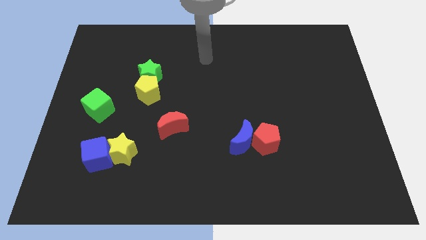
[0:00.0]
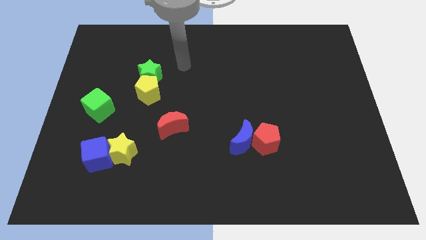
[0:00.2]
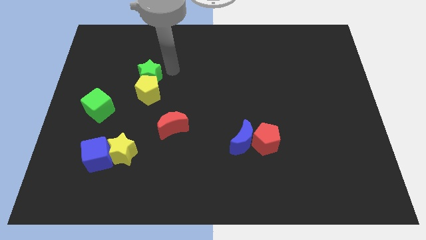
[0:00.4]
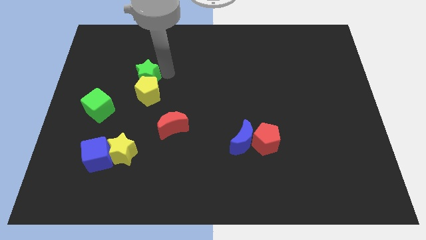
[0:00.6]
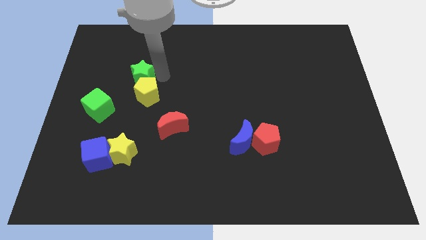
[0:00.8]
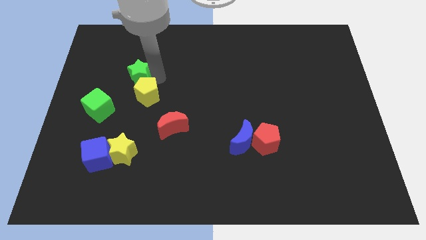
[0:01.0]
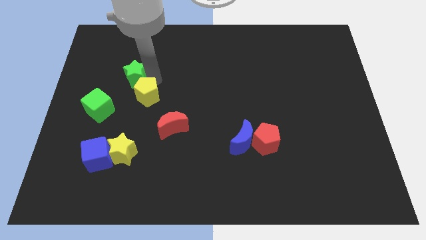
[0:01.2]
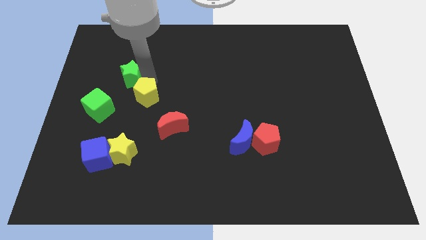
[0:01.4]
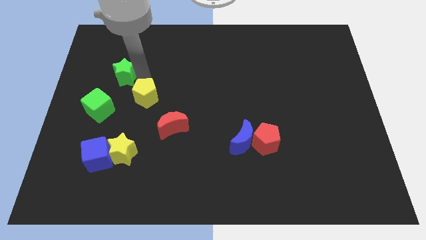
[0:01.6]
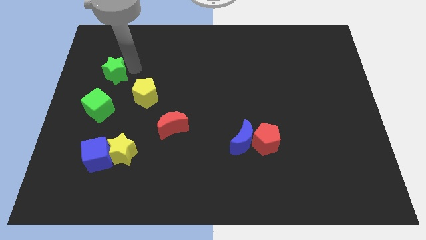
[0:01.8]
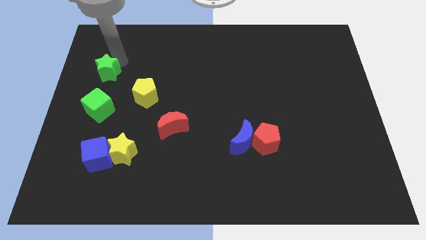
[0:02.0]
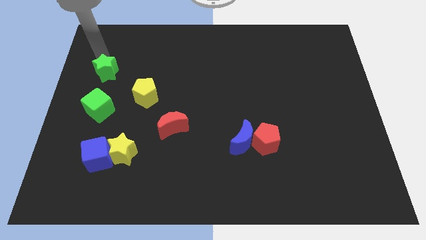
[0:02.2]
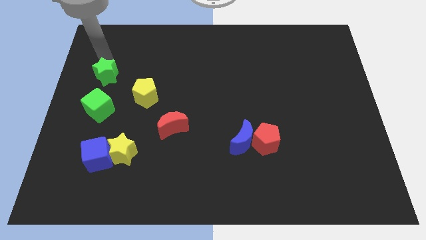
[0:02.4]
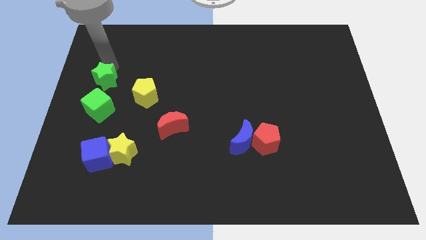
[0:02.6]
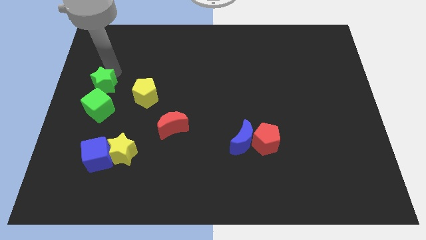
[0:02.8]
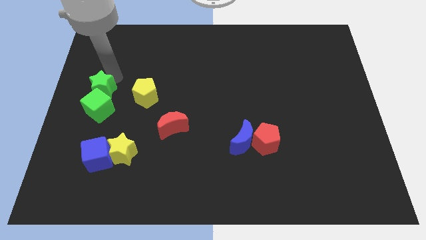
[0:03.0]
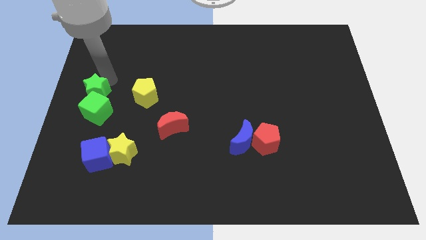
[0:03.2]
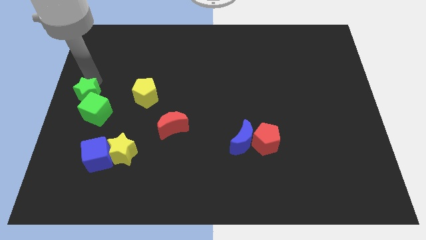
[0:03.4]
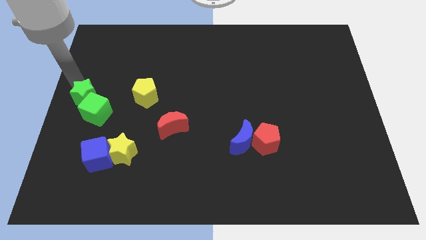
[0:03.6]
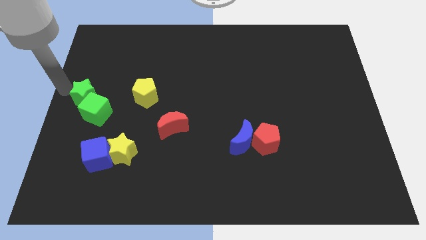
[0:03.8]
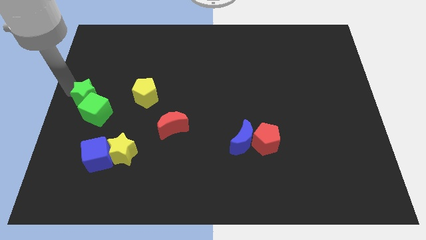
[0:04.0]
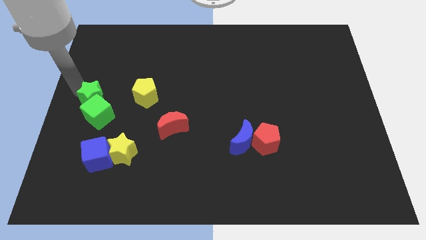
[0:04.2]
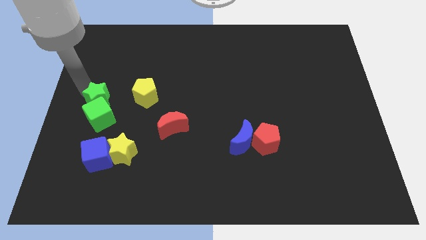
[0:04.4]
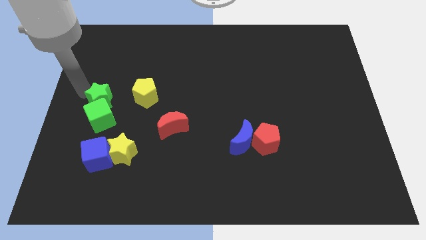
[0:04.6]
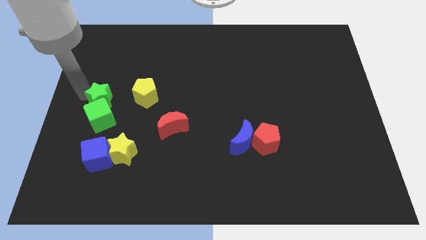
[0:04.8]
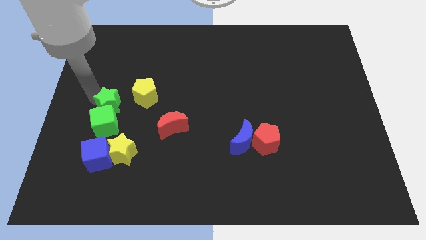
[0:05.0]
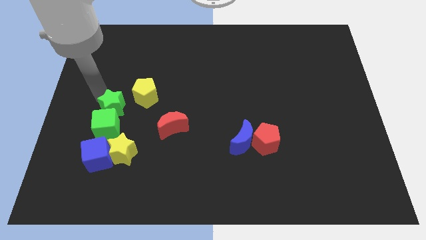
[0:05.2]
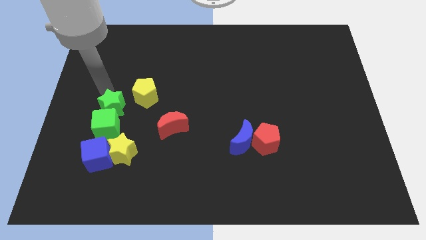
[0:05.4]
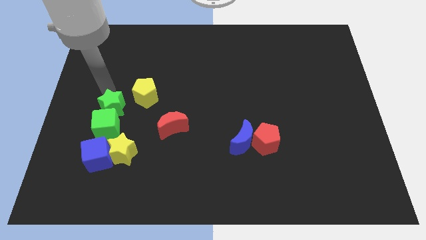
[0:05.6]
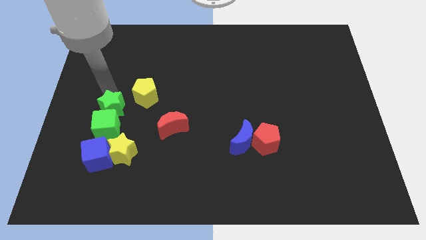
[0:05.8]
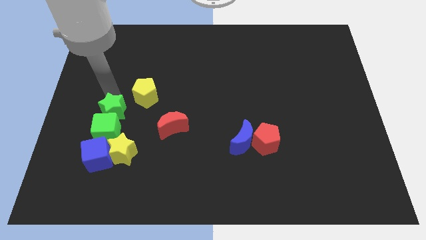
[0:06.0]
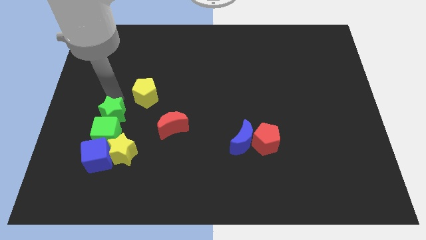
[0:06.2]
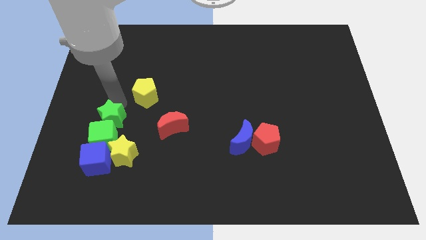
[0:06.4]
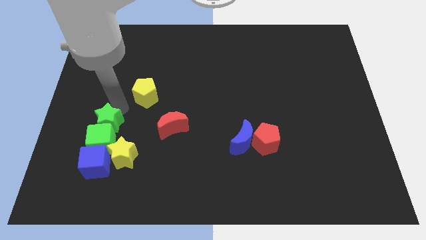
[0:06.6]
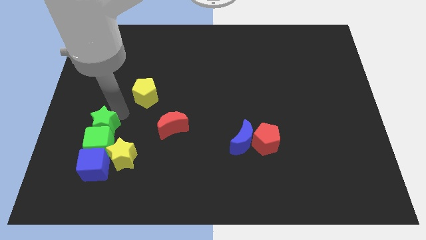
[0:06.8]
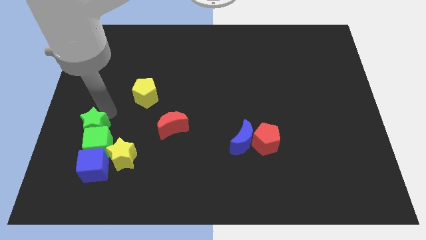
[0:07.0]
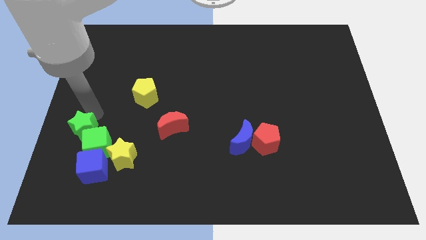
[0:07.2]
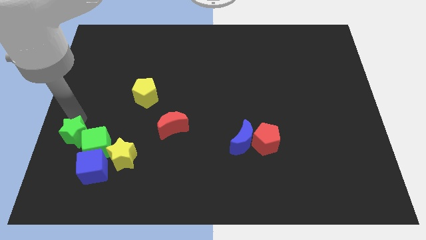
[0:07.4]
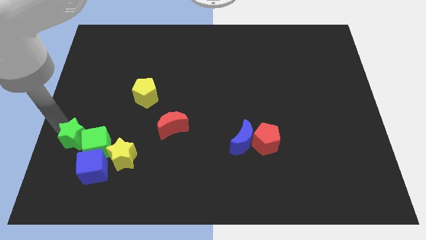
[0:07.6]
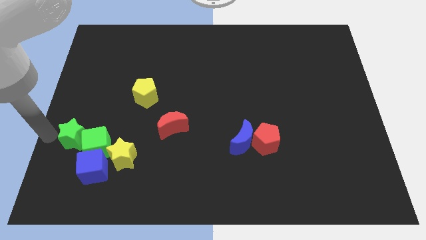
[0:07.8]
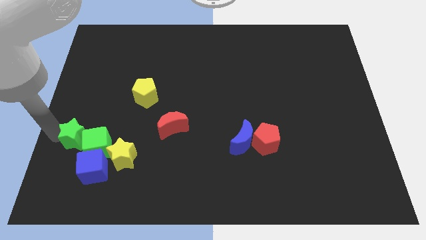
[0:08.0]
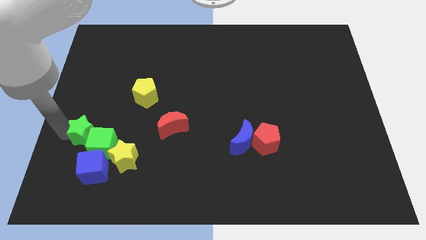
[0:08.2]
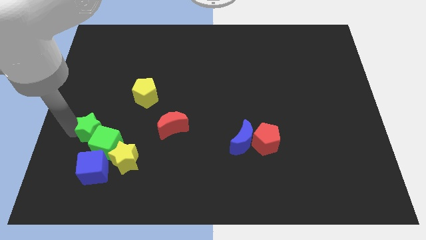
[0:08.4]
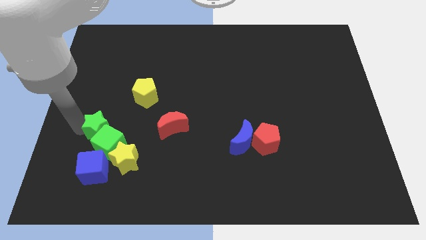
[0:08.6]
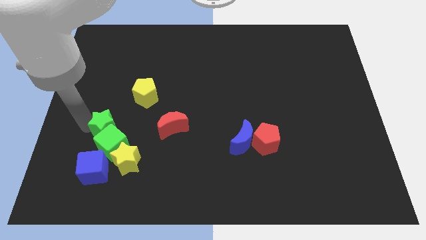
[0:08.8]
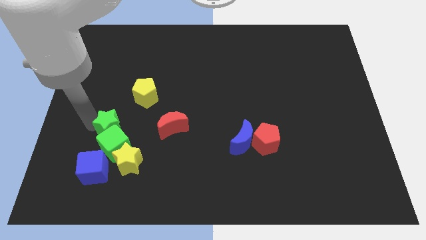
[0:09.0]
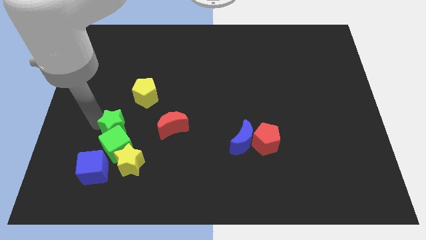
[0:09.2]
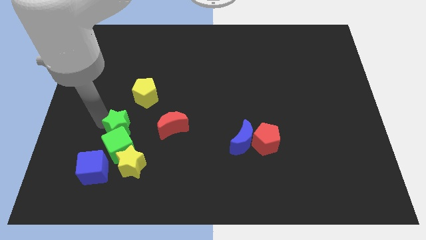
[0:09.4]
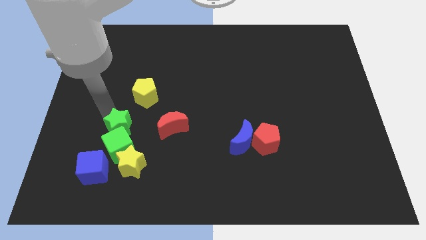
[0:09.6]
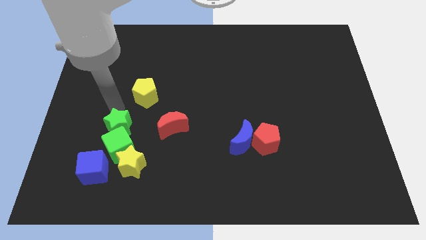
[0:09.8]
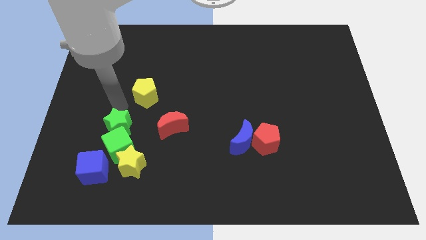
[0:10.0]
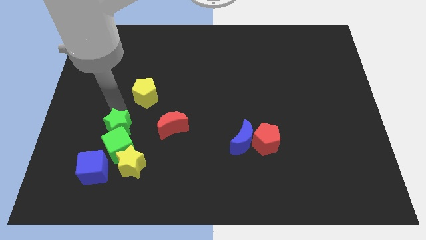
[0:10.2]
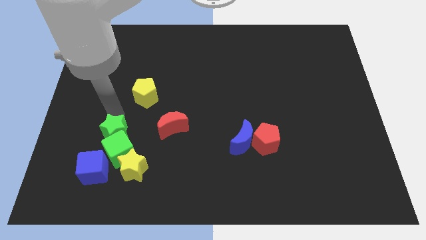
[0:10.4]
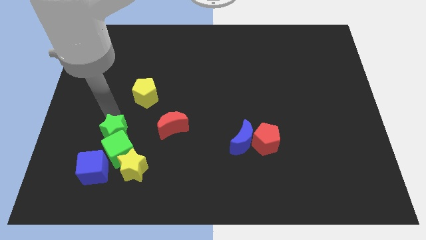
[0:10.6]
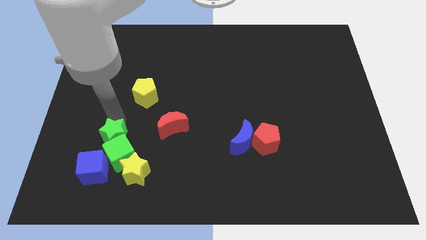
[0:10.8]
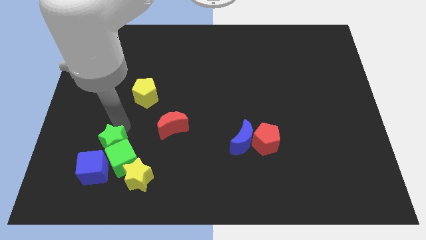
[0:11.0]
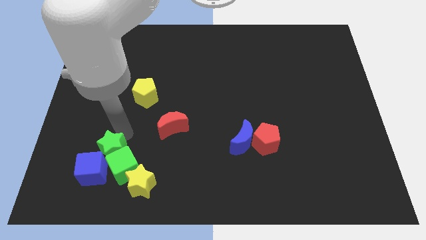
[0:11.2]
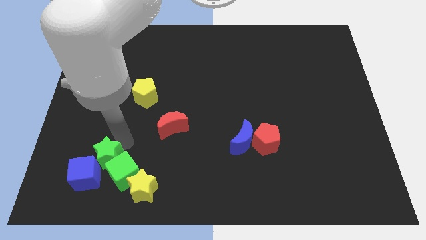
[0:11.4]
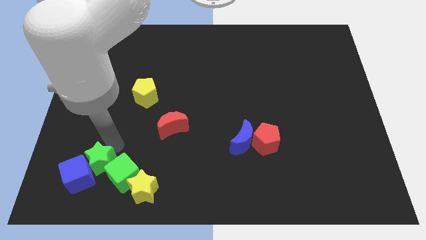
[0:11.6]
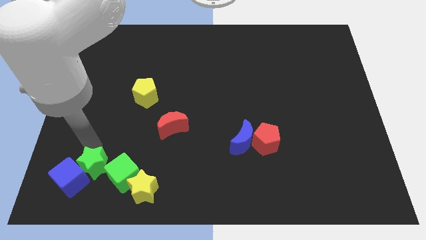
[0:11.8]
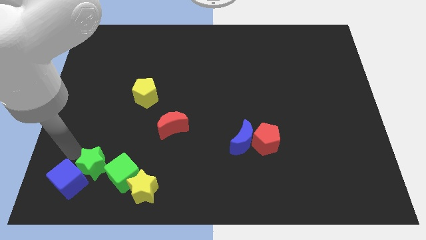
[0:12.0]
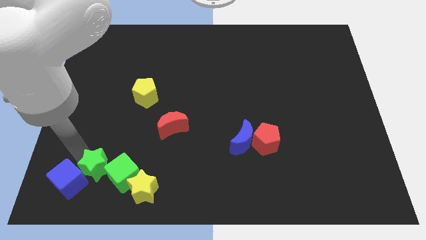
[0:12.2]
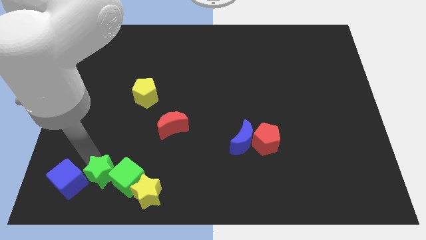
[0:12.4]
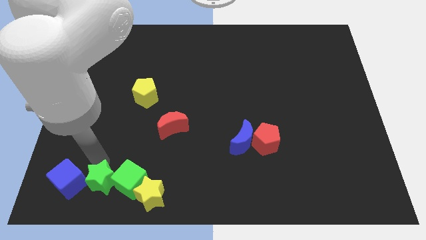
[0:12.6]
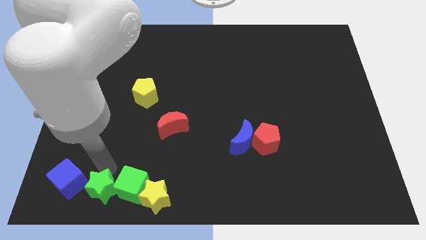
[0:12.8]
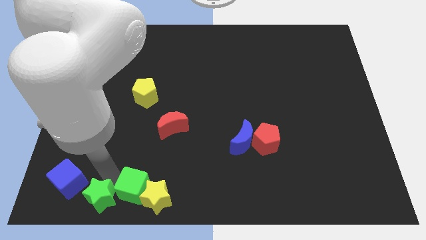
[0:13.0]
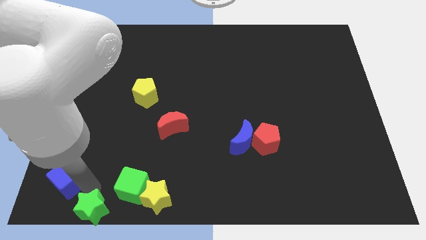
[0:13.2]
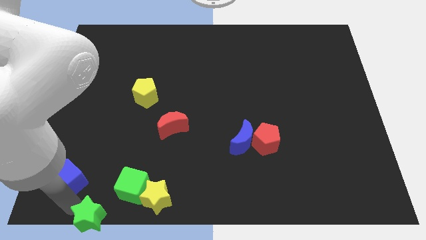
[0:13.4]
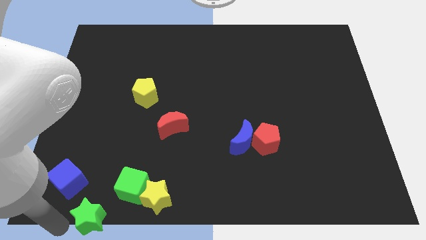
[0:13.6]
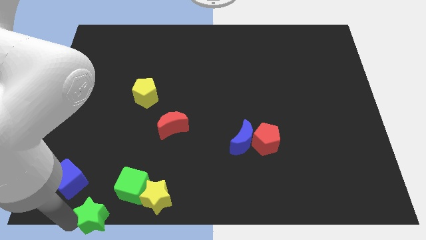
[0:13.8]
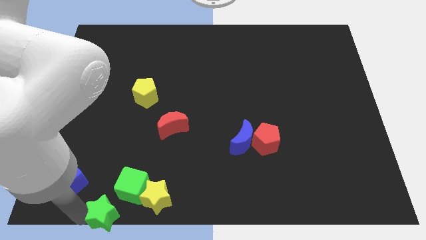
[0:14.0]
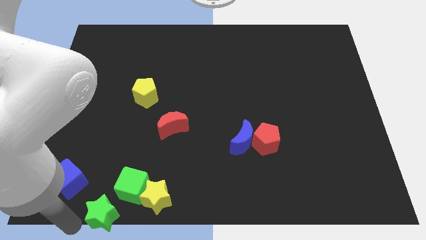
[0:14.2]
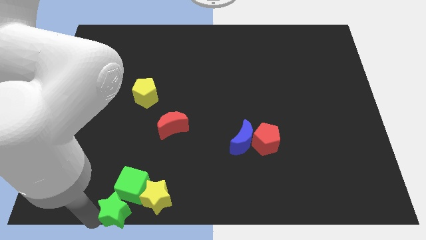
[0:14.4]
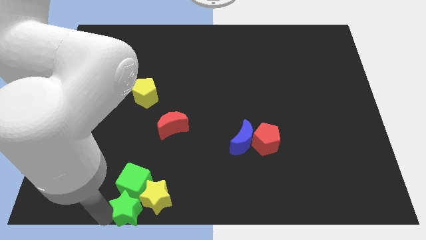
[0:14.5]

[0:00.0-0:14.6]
put the green star next to the yellow star
